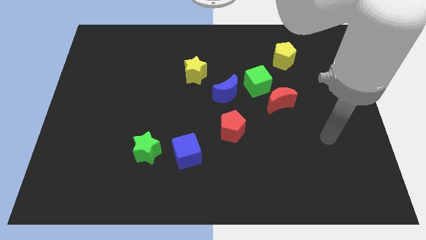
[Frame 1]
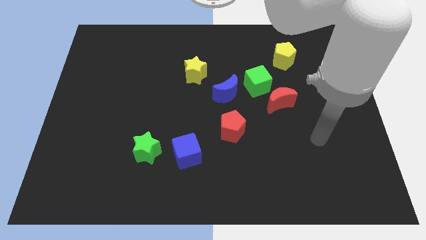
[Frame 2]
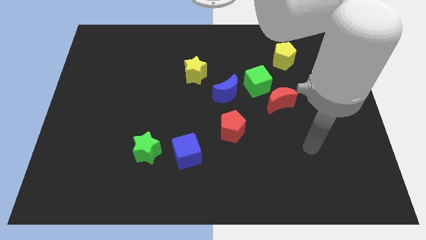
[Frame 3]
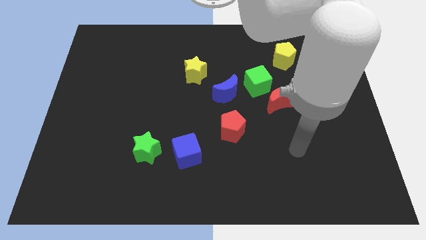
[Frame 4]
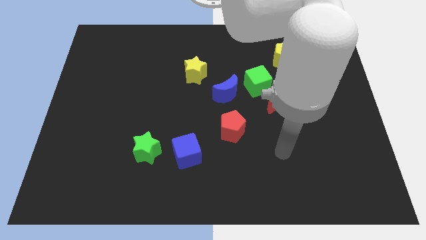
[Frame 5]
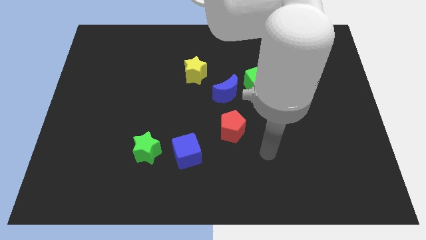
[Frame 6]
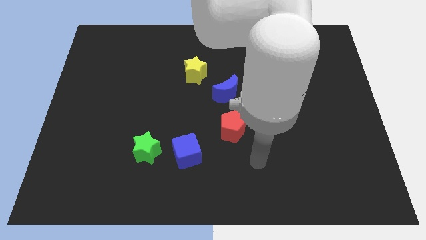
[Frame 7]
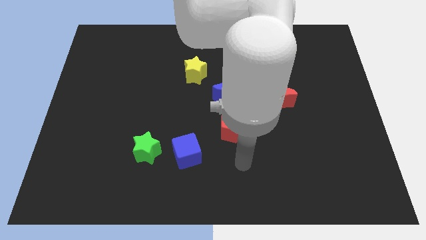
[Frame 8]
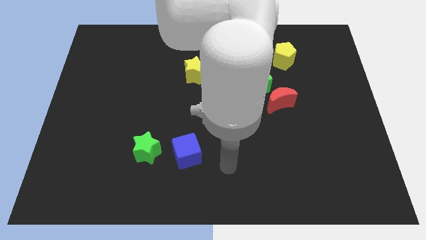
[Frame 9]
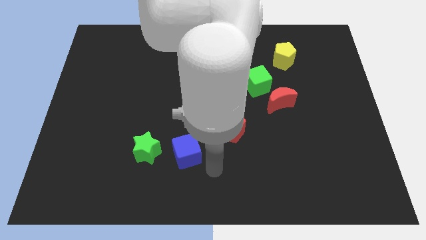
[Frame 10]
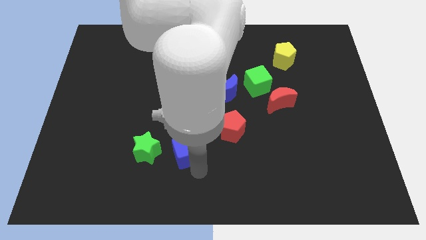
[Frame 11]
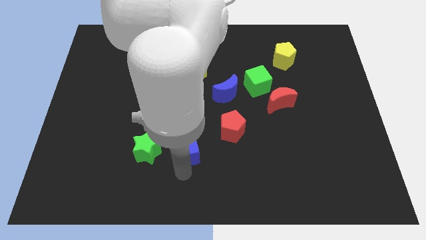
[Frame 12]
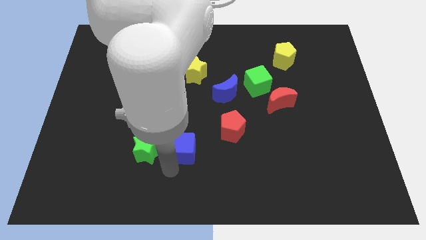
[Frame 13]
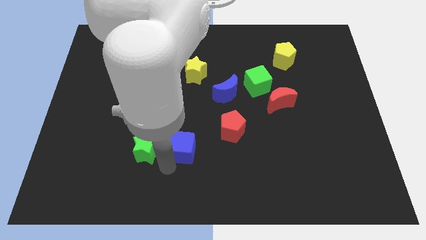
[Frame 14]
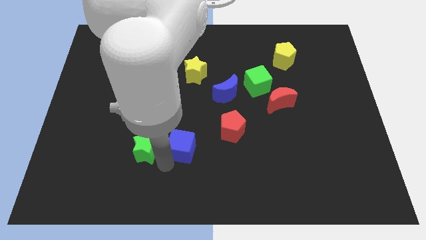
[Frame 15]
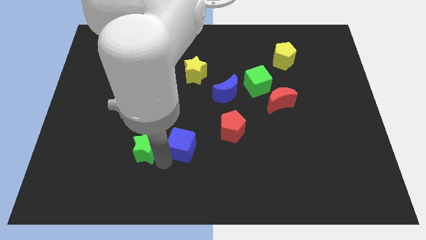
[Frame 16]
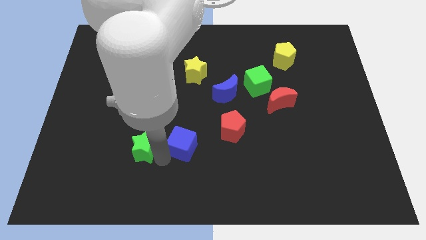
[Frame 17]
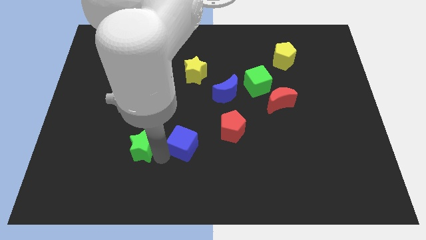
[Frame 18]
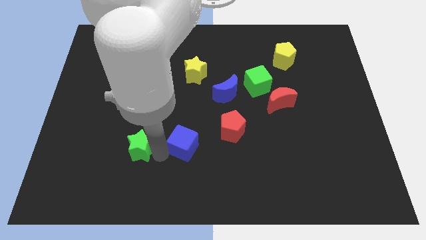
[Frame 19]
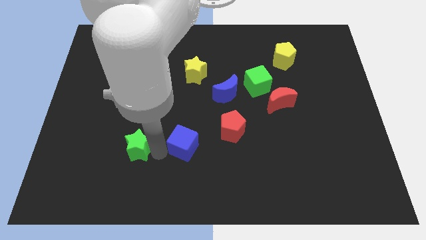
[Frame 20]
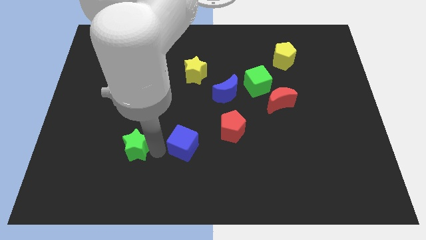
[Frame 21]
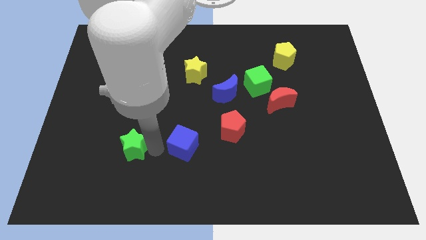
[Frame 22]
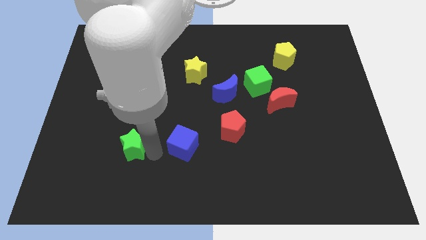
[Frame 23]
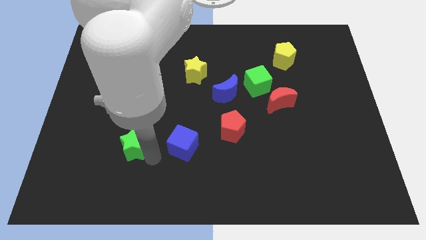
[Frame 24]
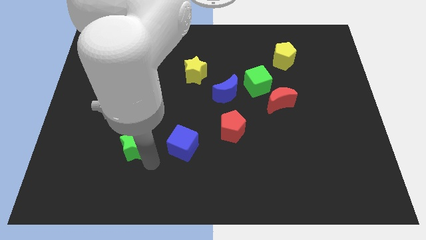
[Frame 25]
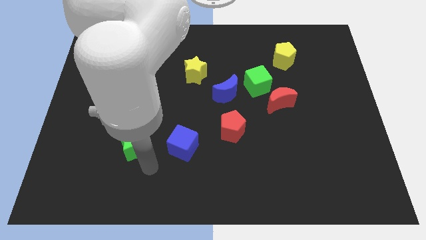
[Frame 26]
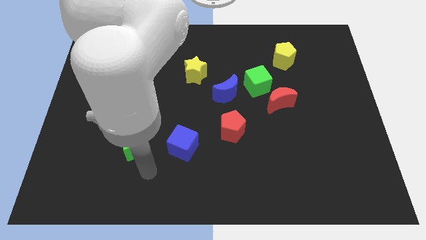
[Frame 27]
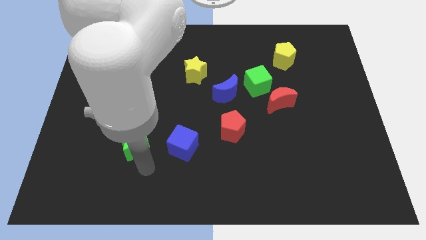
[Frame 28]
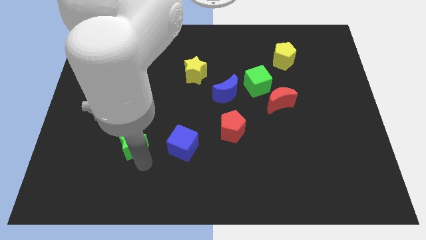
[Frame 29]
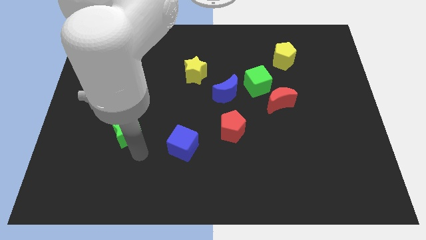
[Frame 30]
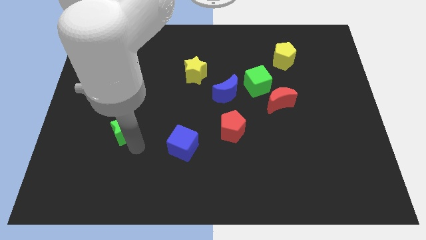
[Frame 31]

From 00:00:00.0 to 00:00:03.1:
push the green star a little up and then to the left

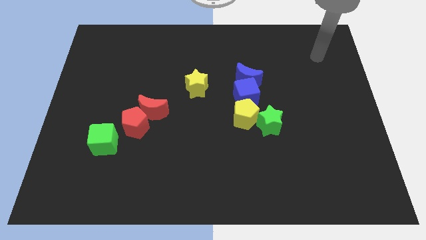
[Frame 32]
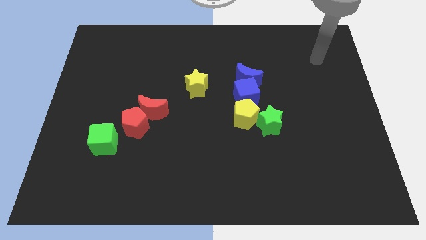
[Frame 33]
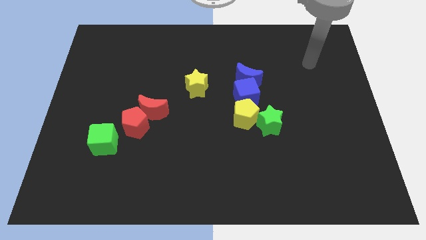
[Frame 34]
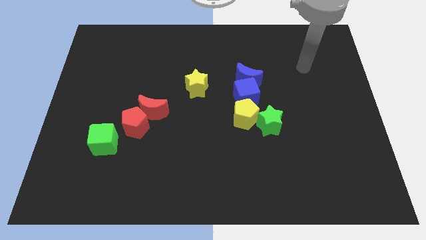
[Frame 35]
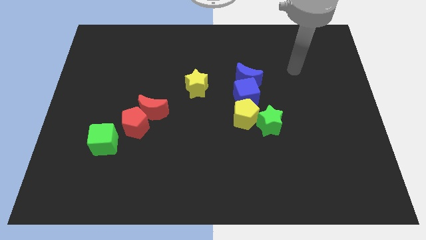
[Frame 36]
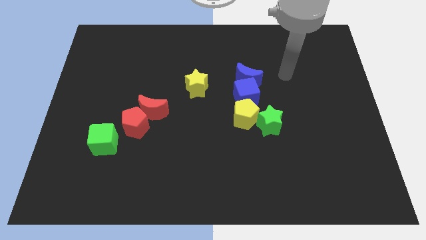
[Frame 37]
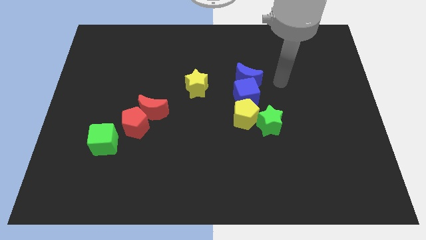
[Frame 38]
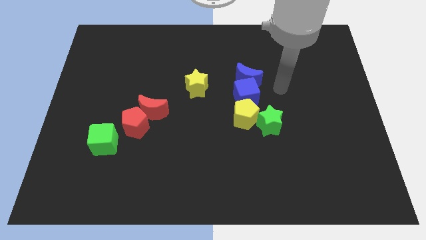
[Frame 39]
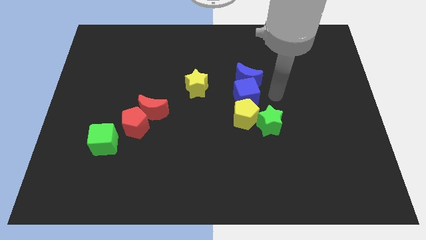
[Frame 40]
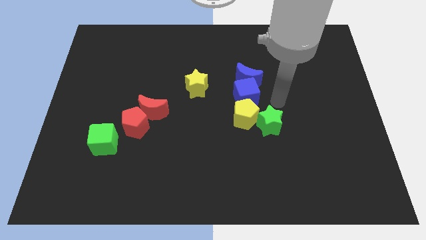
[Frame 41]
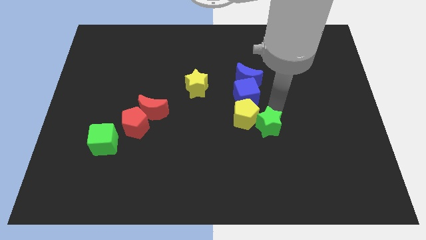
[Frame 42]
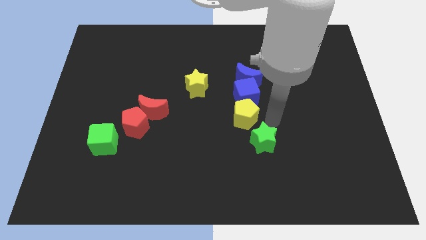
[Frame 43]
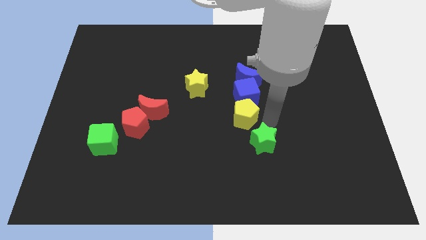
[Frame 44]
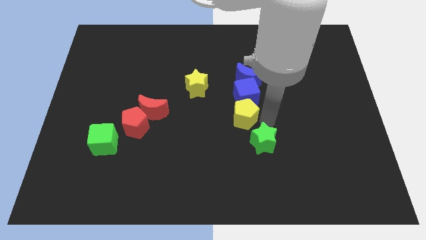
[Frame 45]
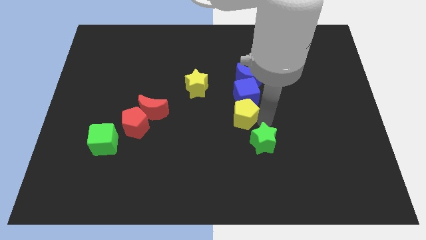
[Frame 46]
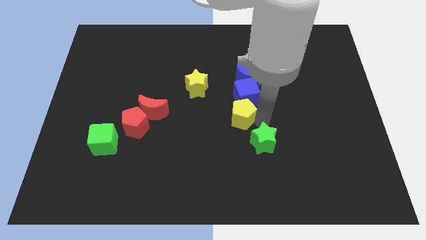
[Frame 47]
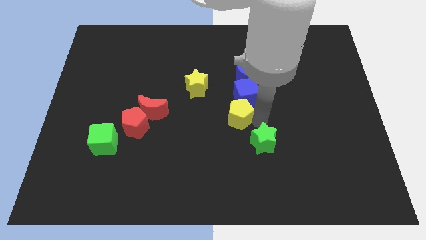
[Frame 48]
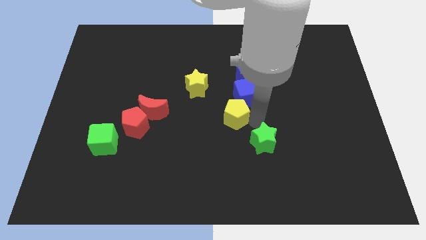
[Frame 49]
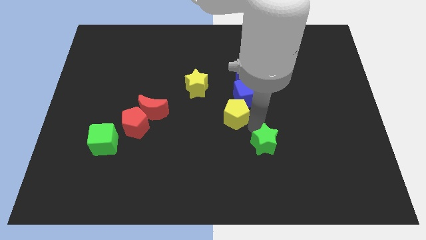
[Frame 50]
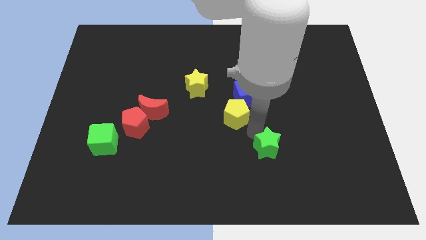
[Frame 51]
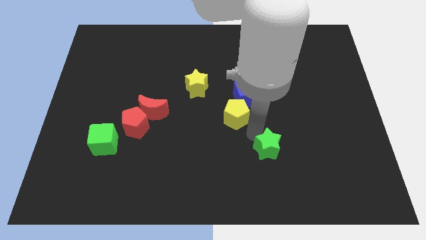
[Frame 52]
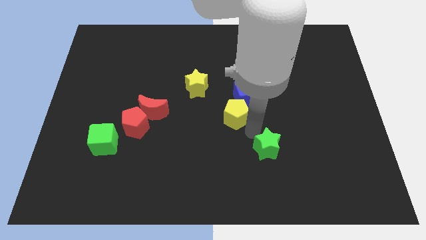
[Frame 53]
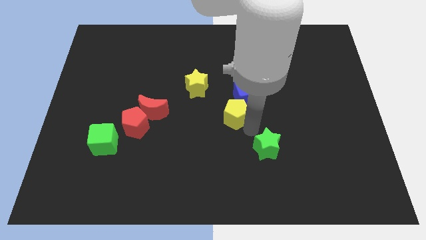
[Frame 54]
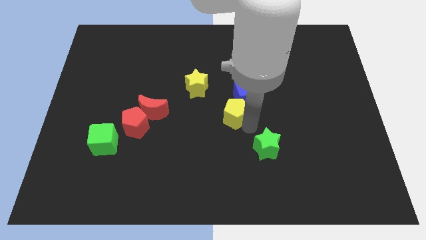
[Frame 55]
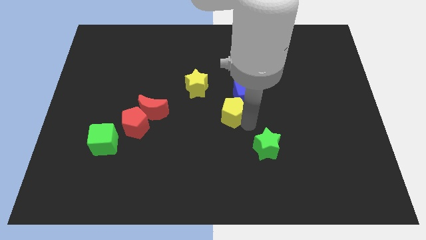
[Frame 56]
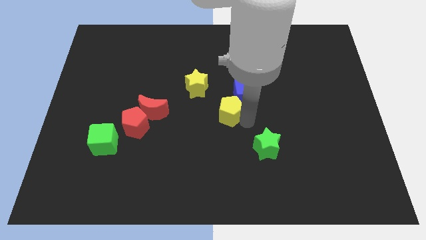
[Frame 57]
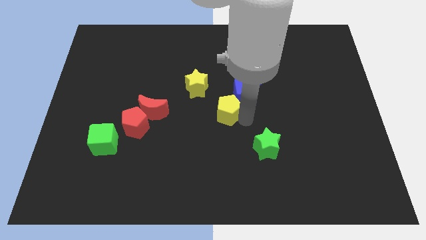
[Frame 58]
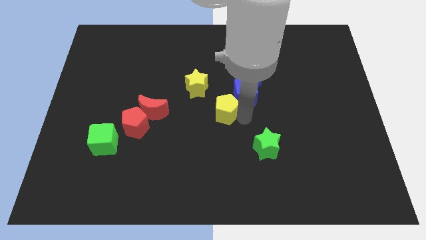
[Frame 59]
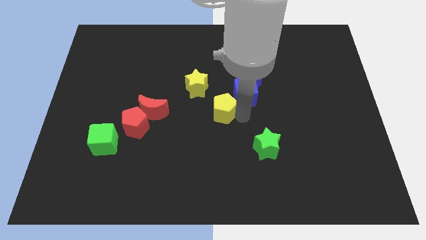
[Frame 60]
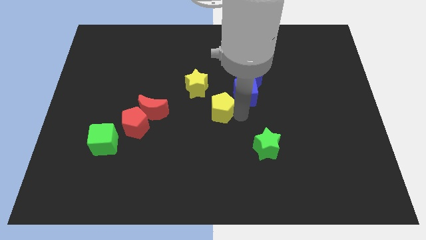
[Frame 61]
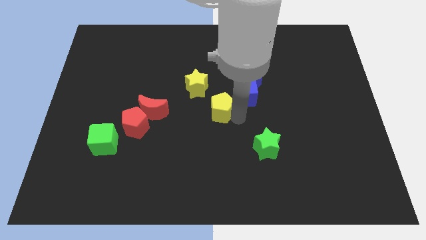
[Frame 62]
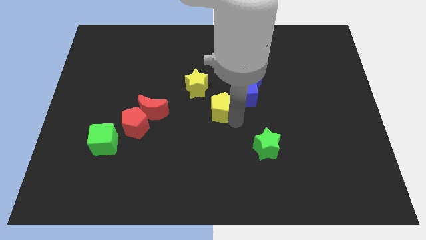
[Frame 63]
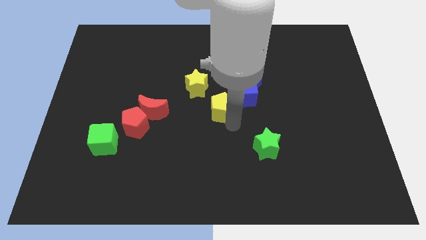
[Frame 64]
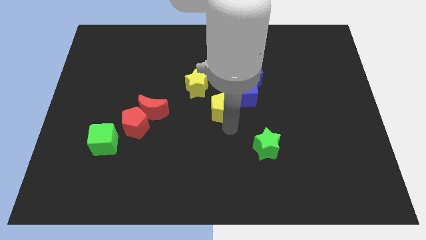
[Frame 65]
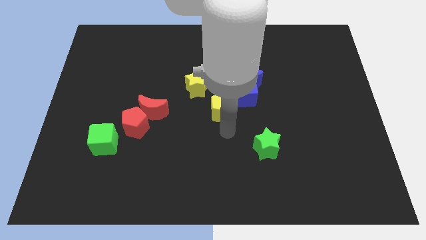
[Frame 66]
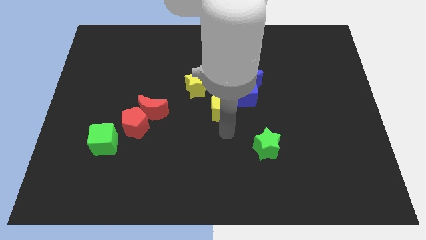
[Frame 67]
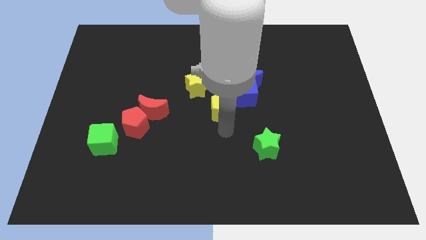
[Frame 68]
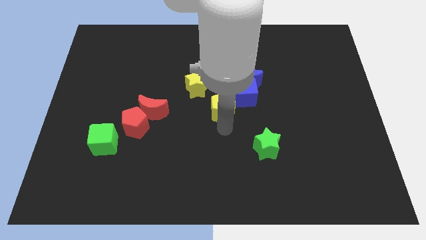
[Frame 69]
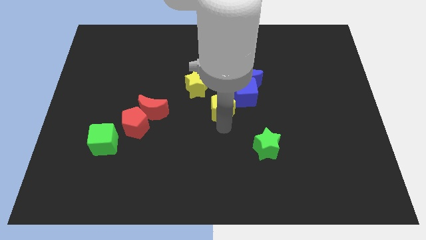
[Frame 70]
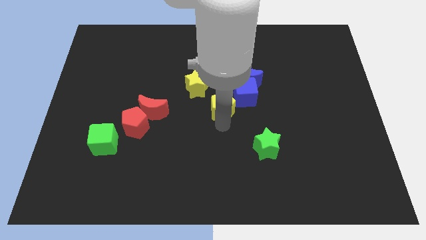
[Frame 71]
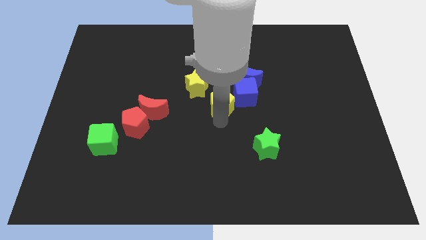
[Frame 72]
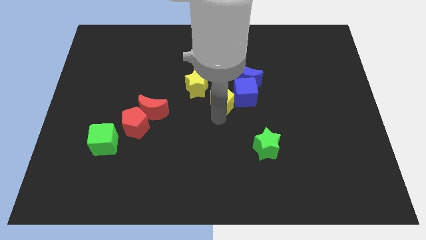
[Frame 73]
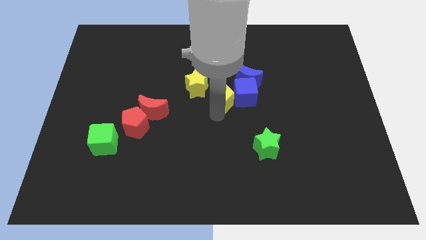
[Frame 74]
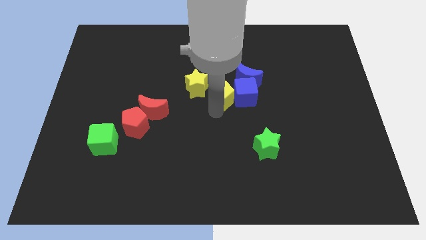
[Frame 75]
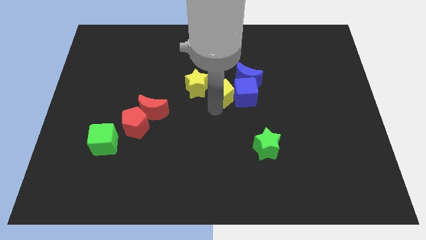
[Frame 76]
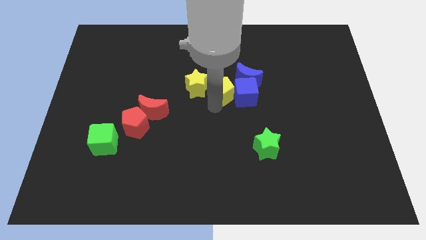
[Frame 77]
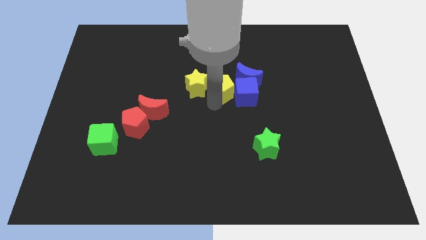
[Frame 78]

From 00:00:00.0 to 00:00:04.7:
slightly push the yellow pentagon upwards
